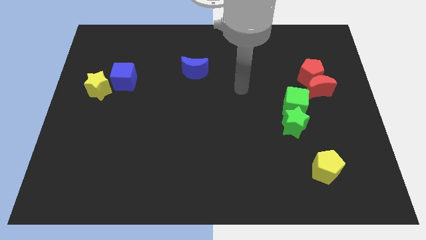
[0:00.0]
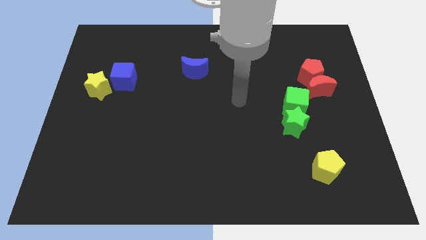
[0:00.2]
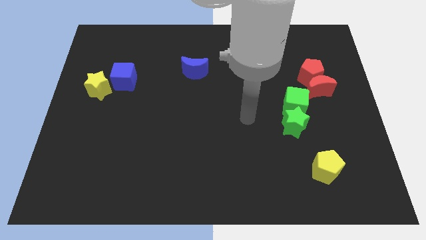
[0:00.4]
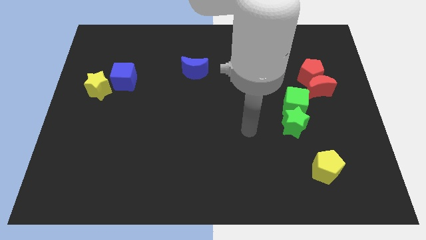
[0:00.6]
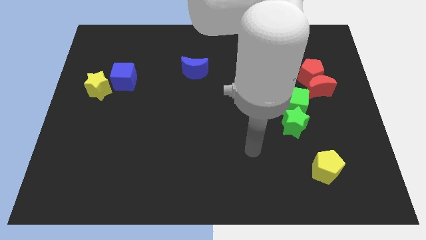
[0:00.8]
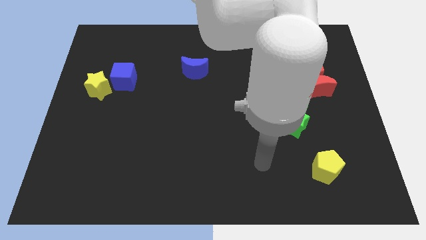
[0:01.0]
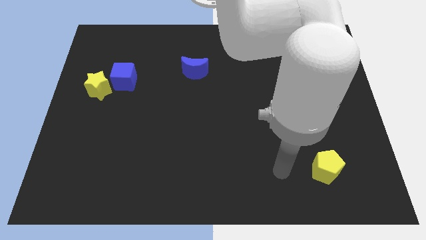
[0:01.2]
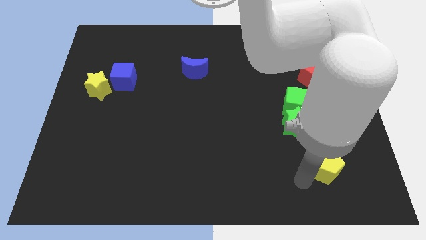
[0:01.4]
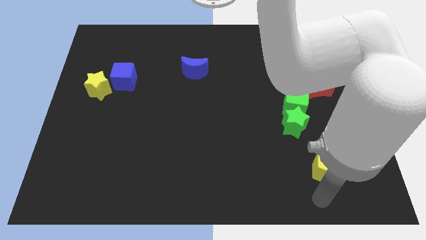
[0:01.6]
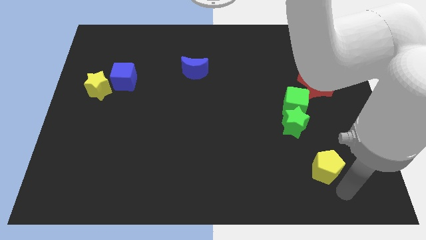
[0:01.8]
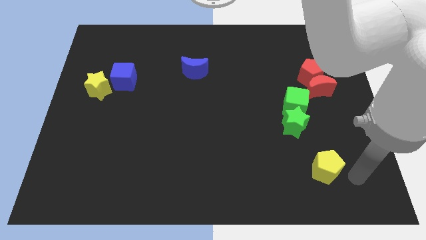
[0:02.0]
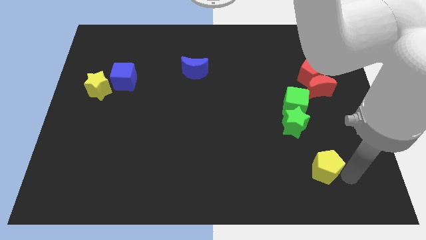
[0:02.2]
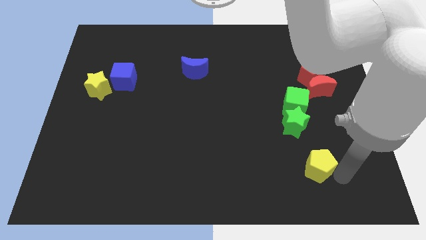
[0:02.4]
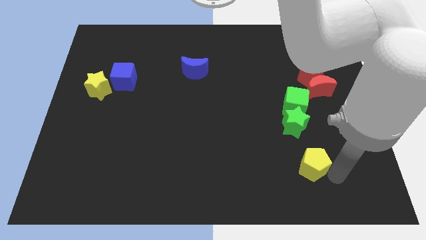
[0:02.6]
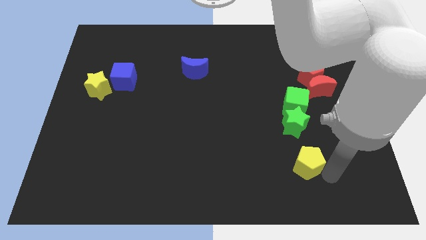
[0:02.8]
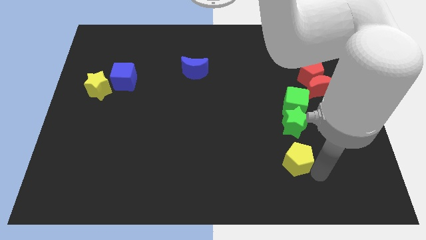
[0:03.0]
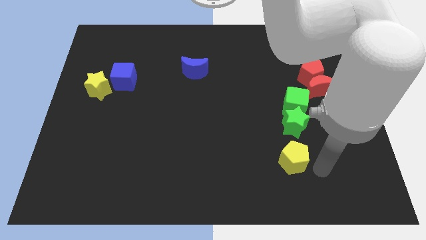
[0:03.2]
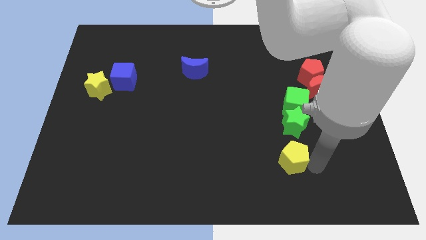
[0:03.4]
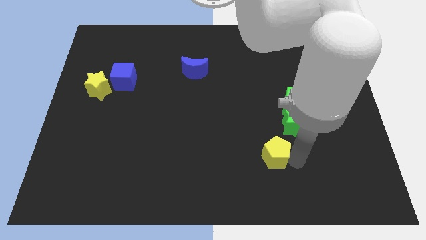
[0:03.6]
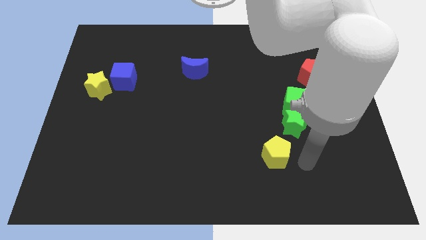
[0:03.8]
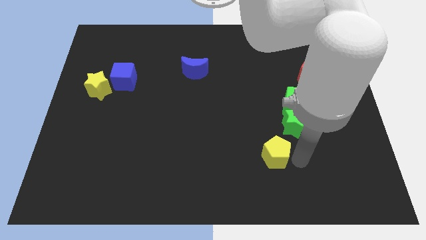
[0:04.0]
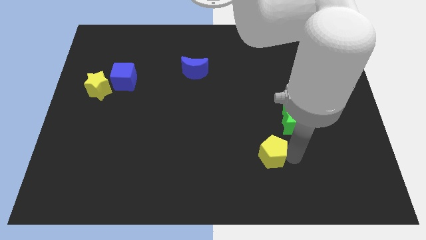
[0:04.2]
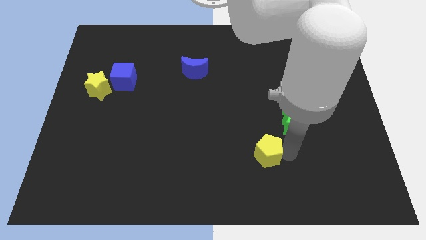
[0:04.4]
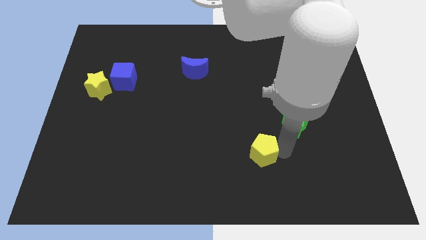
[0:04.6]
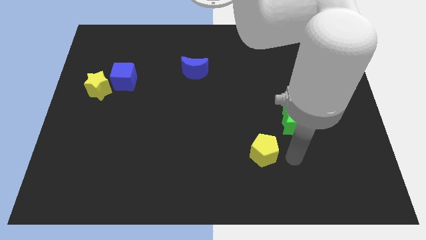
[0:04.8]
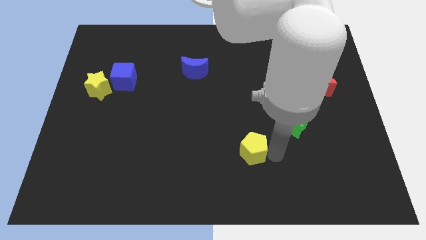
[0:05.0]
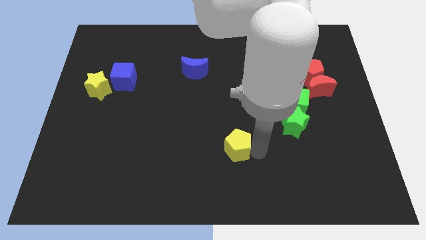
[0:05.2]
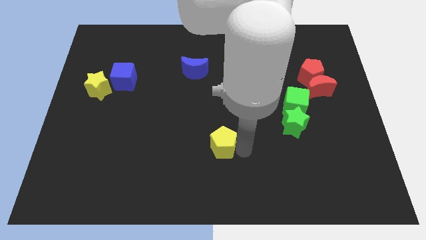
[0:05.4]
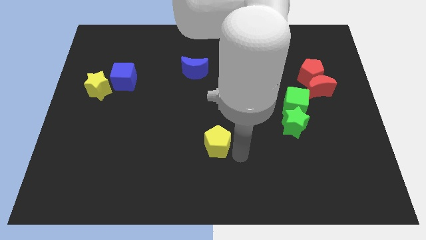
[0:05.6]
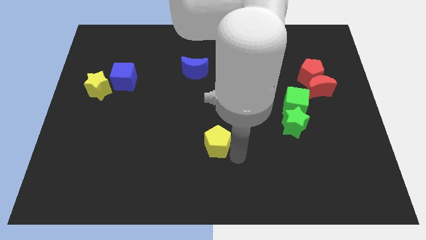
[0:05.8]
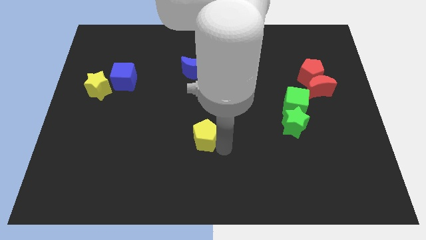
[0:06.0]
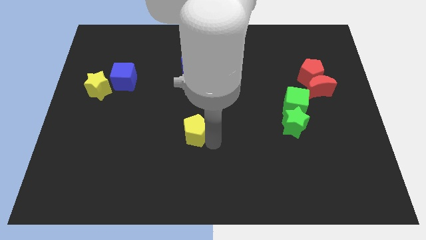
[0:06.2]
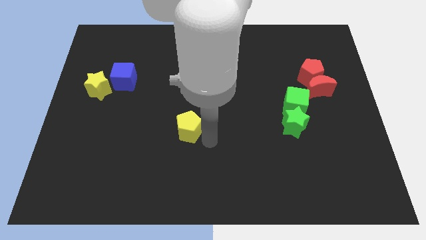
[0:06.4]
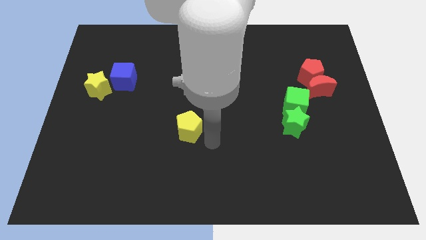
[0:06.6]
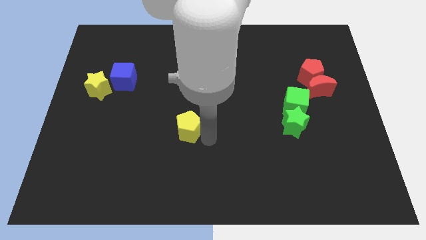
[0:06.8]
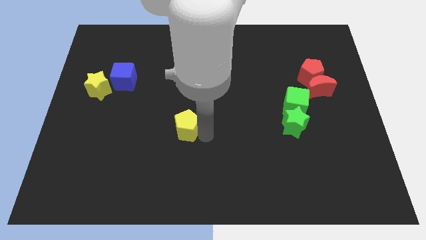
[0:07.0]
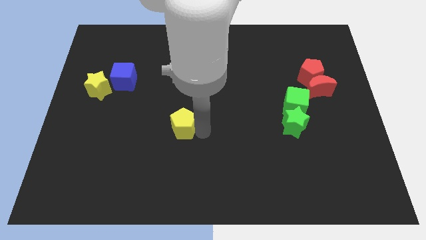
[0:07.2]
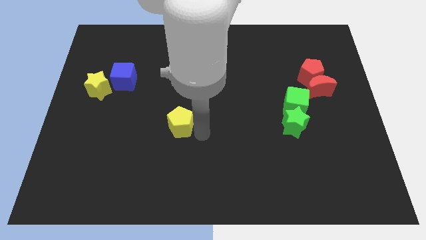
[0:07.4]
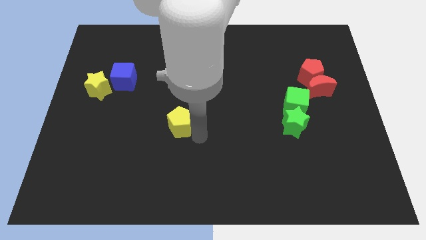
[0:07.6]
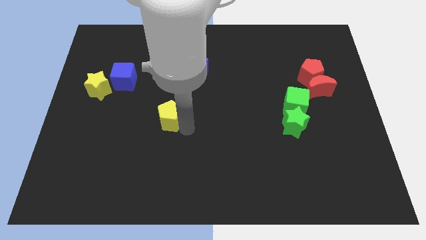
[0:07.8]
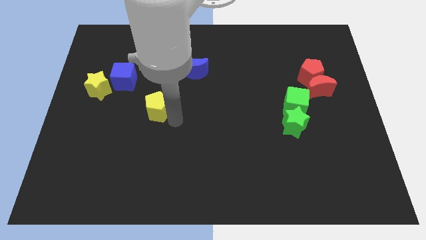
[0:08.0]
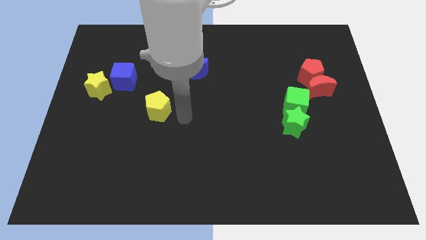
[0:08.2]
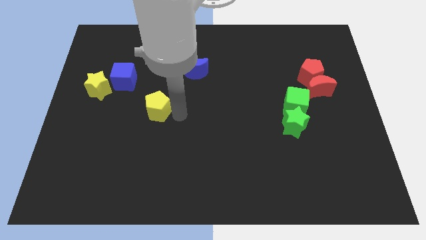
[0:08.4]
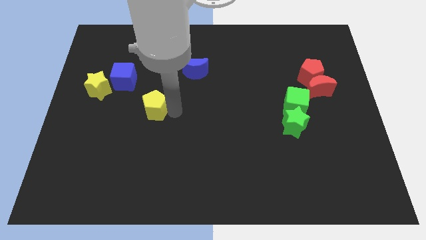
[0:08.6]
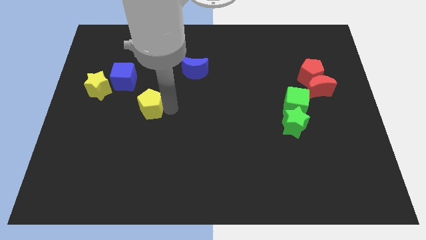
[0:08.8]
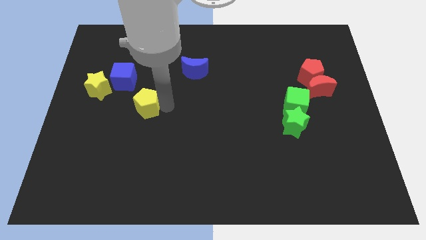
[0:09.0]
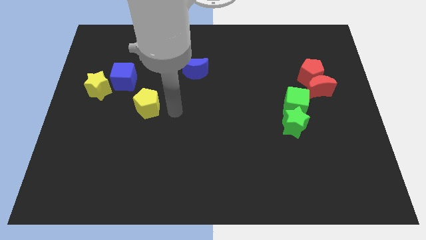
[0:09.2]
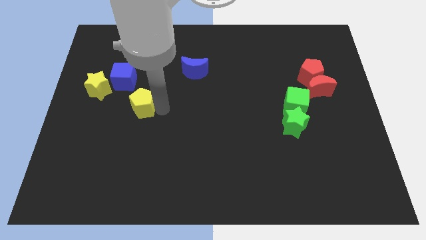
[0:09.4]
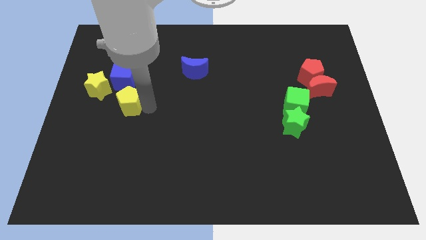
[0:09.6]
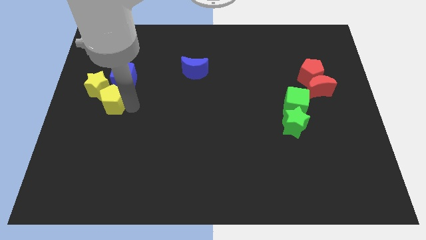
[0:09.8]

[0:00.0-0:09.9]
push the yellow pentagon towards the yellow star

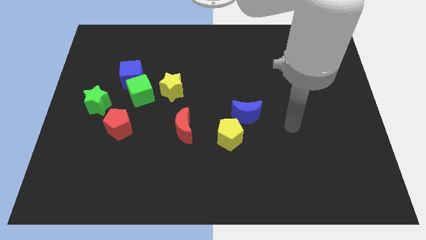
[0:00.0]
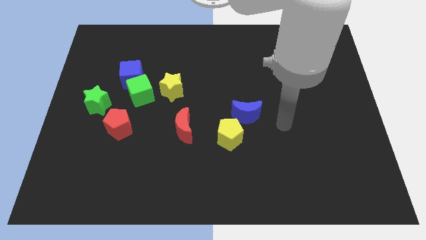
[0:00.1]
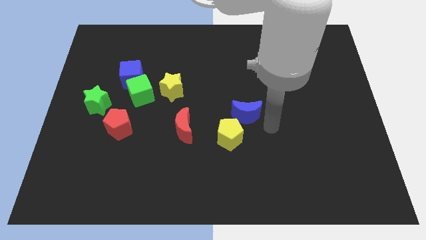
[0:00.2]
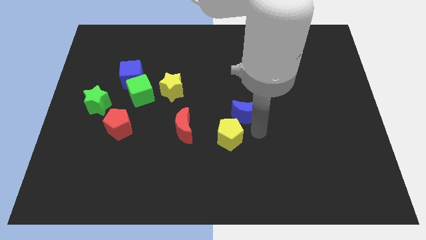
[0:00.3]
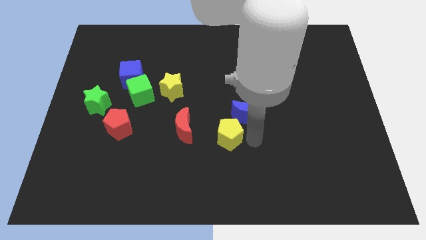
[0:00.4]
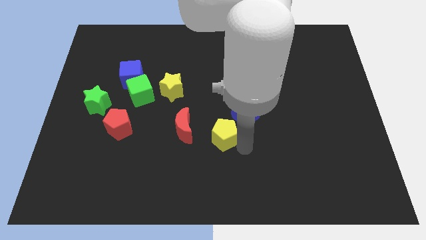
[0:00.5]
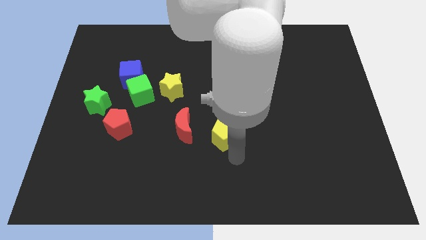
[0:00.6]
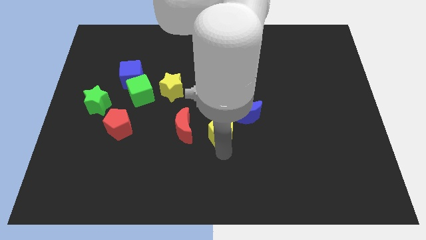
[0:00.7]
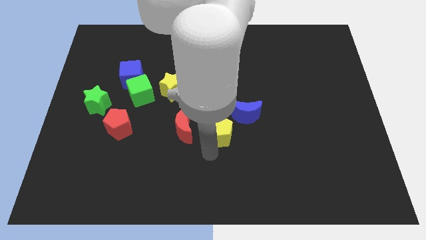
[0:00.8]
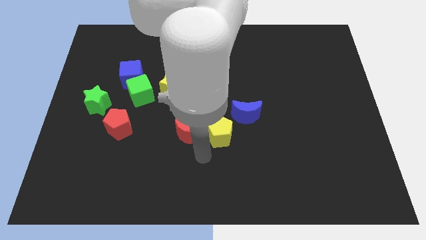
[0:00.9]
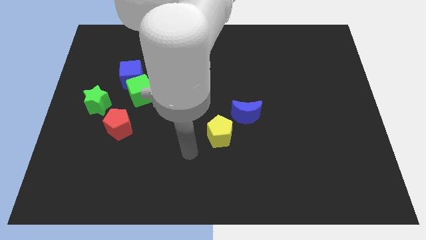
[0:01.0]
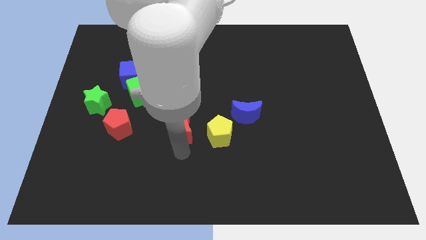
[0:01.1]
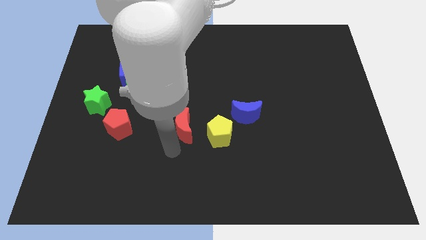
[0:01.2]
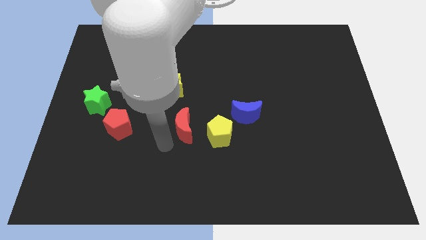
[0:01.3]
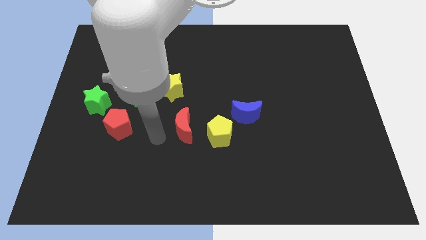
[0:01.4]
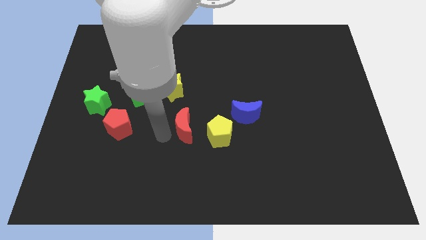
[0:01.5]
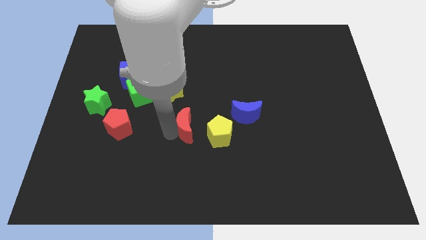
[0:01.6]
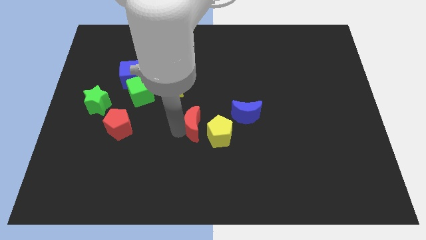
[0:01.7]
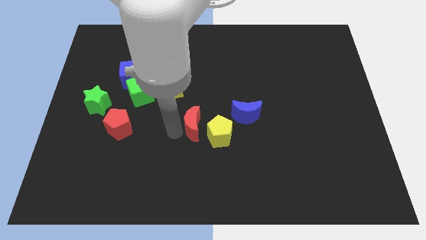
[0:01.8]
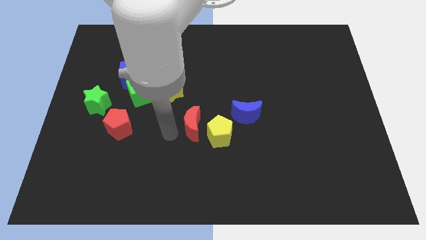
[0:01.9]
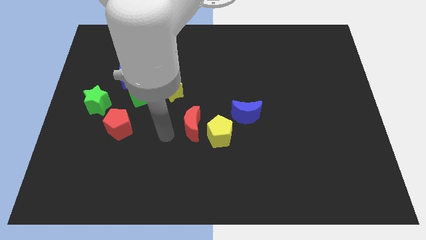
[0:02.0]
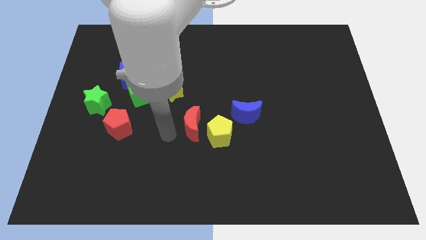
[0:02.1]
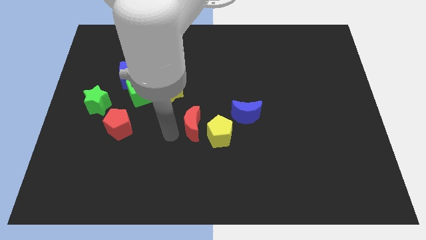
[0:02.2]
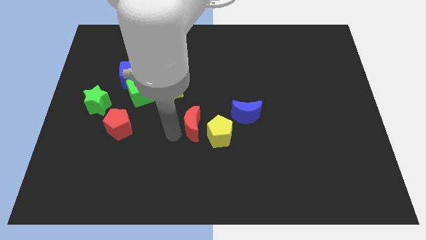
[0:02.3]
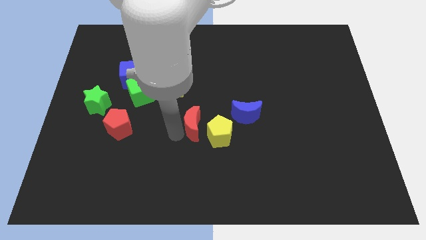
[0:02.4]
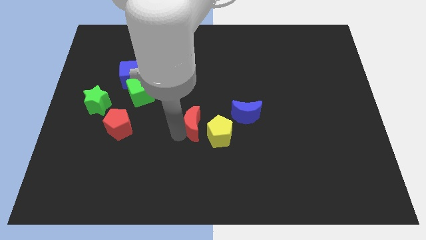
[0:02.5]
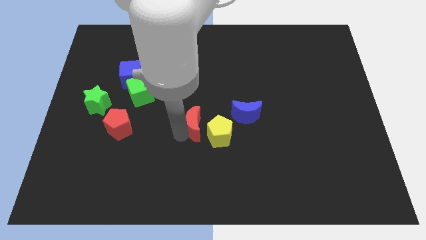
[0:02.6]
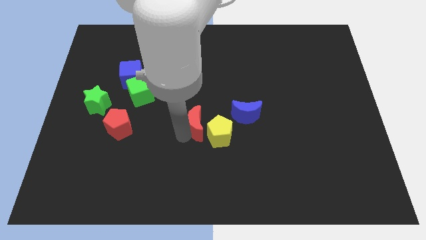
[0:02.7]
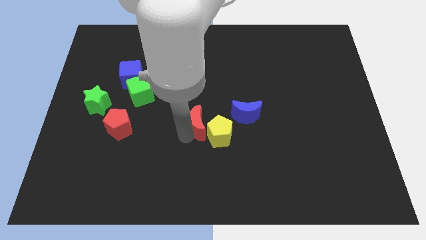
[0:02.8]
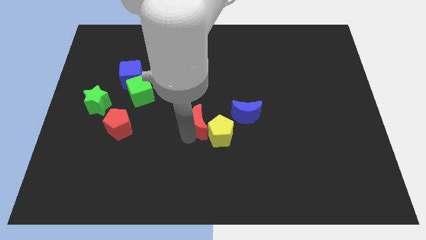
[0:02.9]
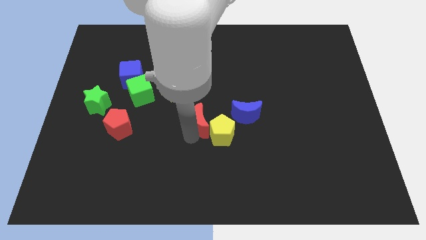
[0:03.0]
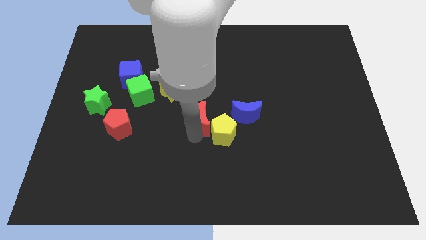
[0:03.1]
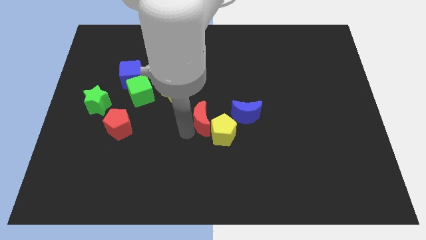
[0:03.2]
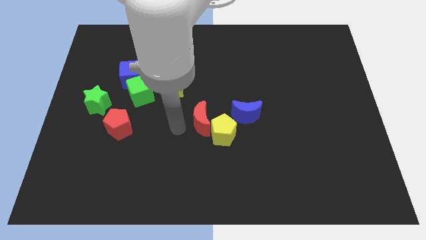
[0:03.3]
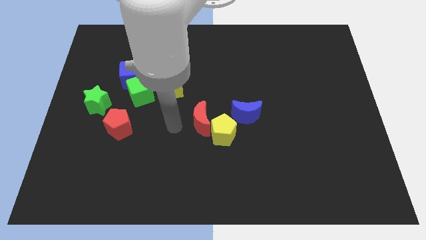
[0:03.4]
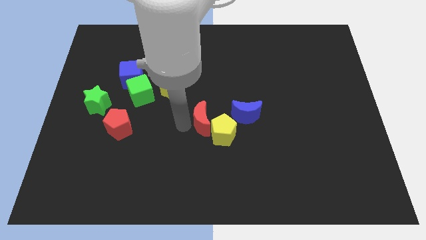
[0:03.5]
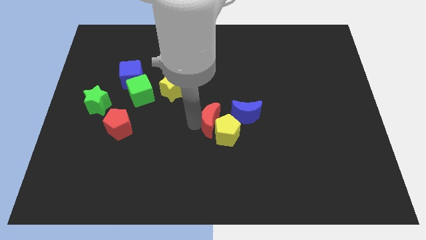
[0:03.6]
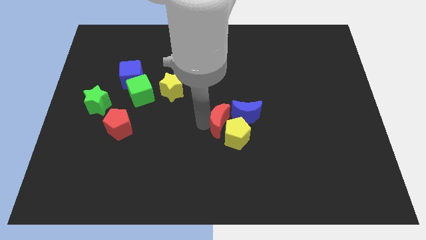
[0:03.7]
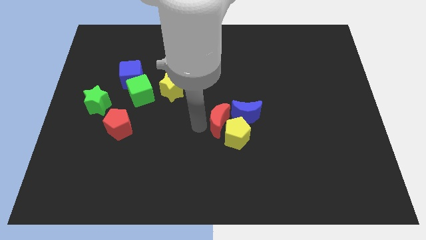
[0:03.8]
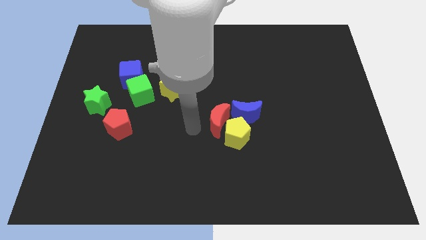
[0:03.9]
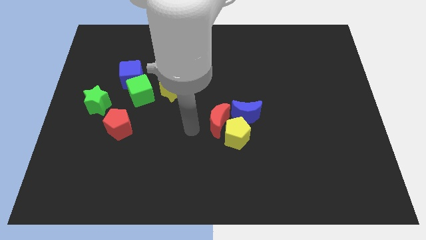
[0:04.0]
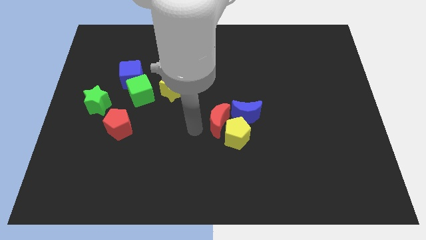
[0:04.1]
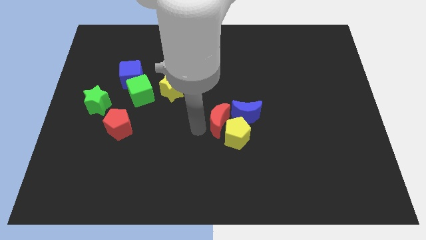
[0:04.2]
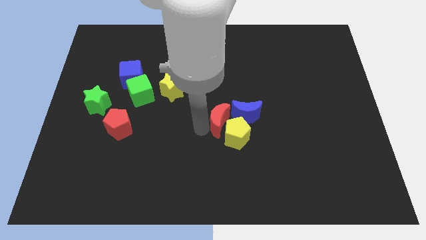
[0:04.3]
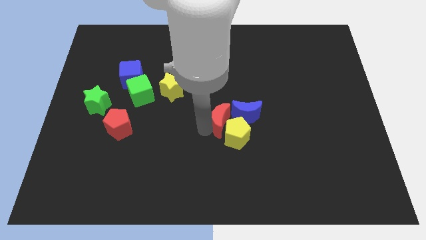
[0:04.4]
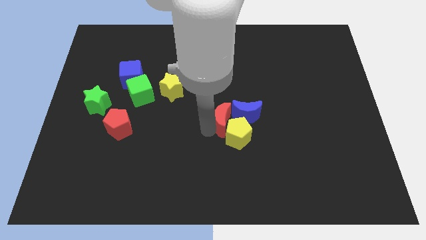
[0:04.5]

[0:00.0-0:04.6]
move the red moon next to the blue moon
